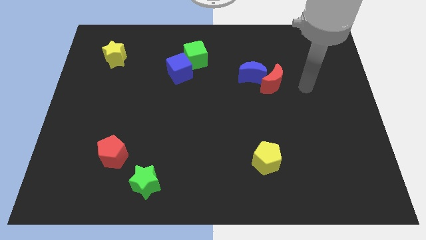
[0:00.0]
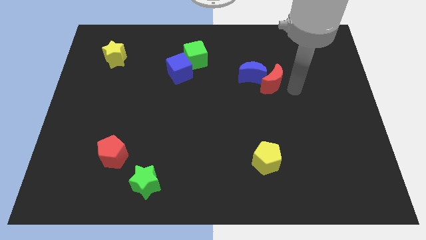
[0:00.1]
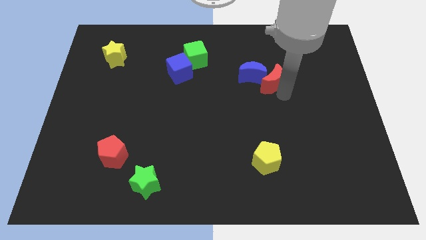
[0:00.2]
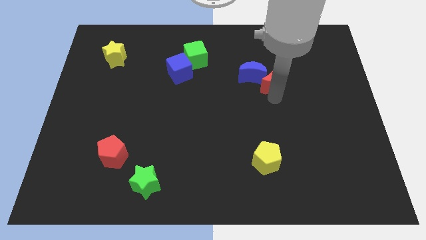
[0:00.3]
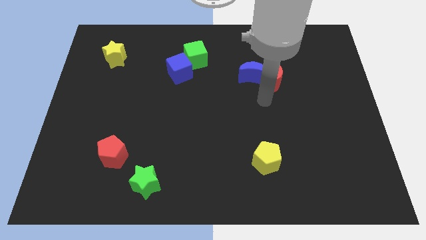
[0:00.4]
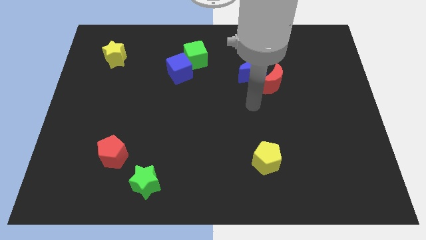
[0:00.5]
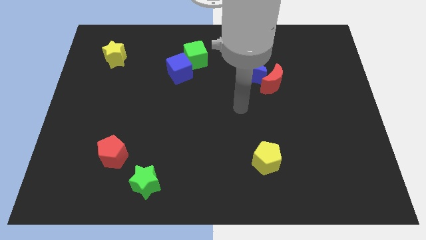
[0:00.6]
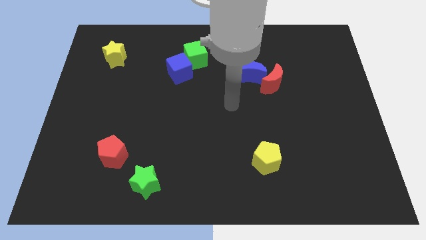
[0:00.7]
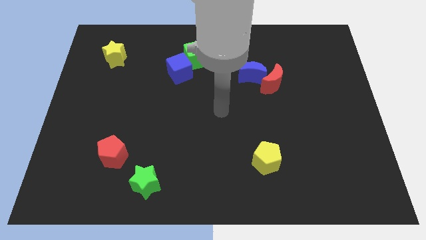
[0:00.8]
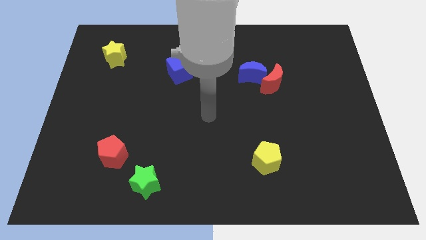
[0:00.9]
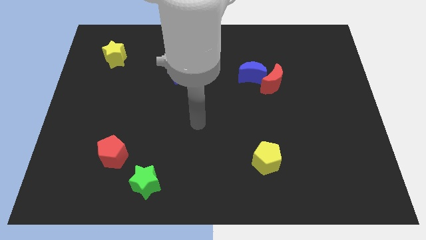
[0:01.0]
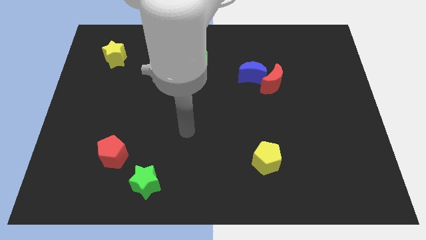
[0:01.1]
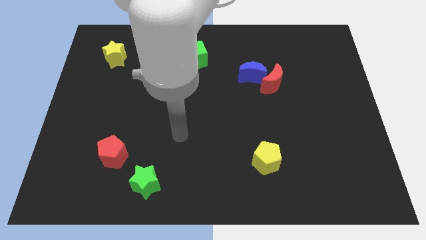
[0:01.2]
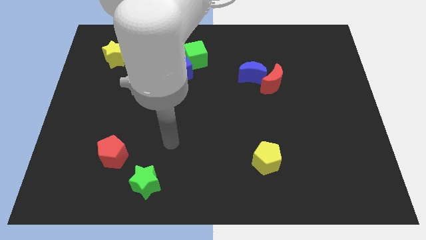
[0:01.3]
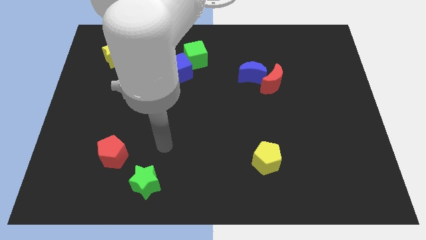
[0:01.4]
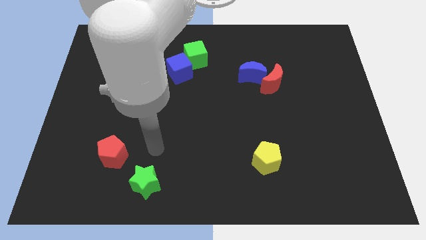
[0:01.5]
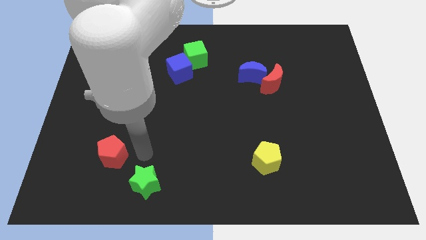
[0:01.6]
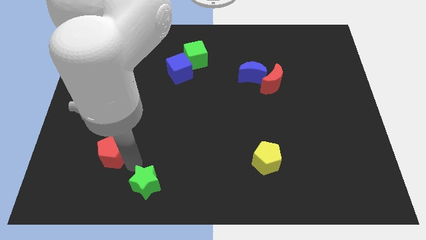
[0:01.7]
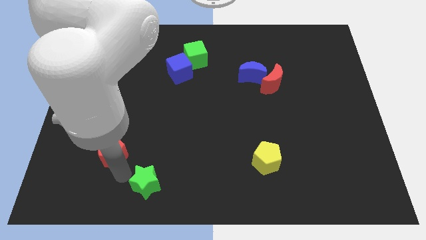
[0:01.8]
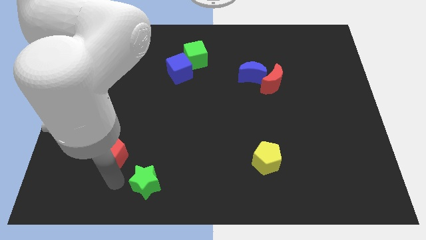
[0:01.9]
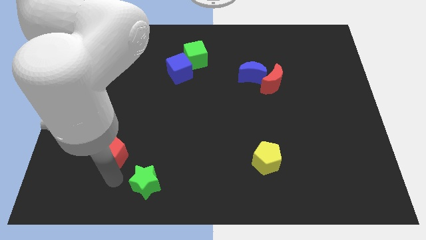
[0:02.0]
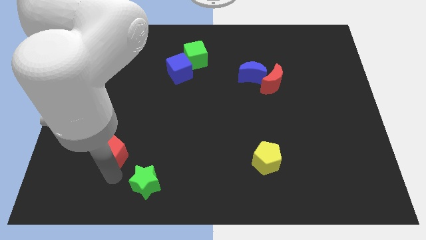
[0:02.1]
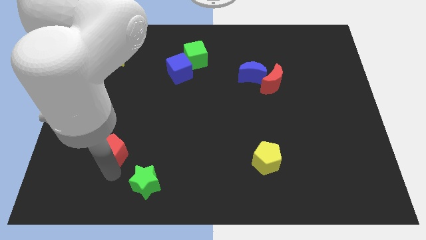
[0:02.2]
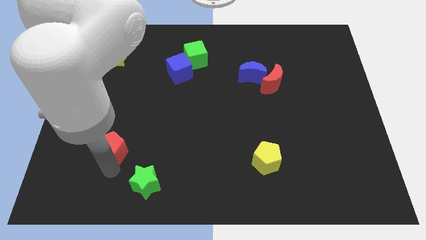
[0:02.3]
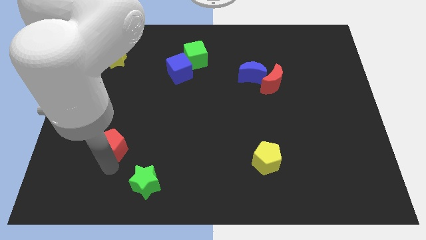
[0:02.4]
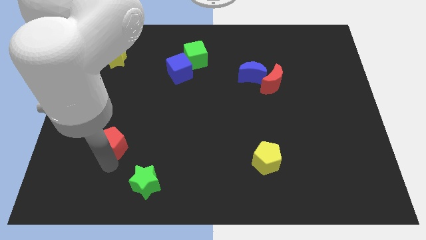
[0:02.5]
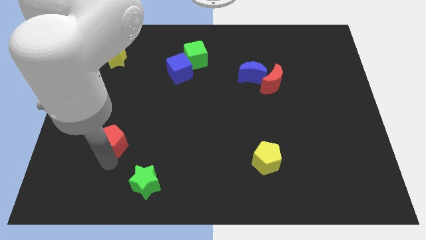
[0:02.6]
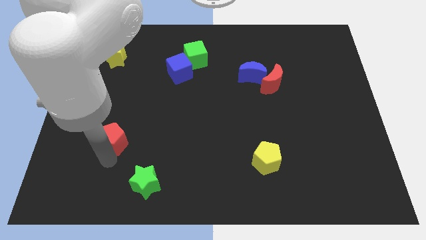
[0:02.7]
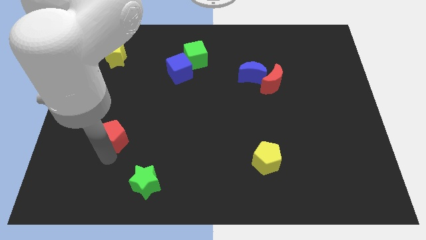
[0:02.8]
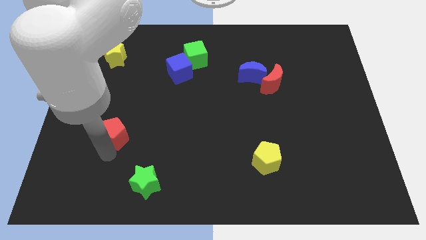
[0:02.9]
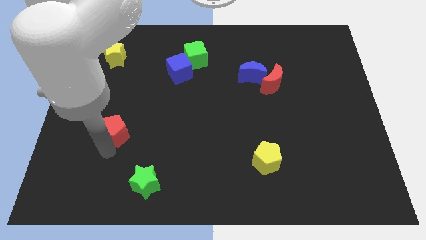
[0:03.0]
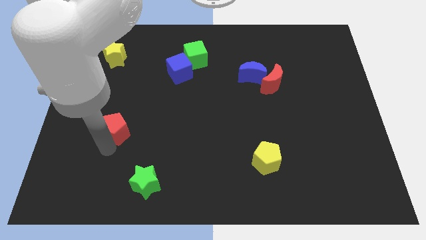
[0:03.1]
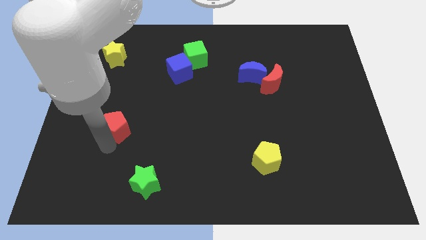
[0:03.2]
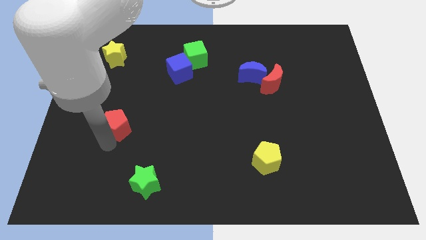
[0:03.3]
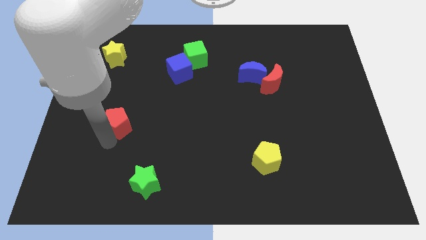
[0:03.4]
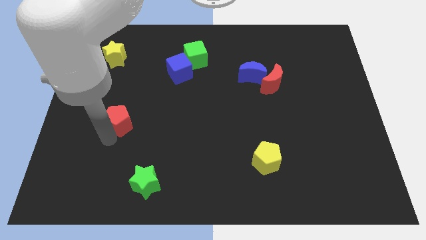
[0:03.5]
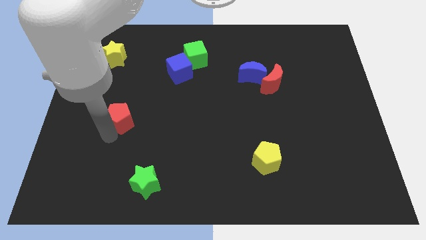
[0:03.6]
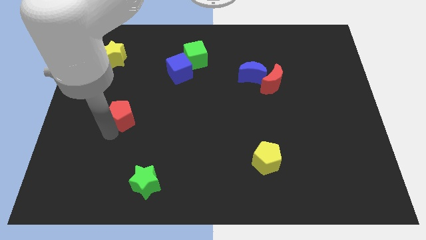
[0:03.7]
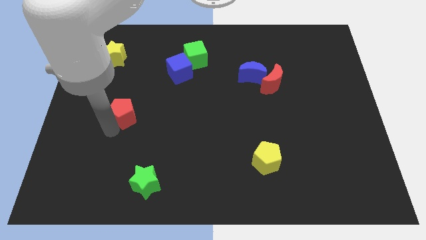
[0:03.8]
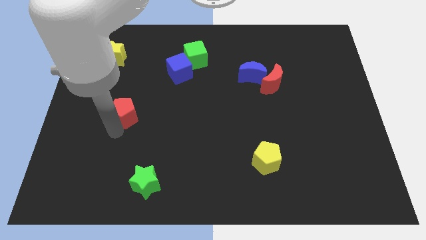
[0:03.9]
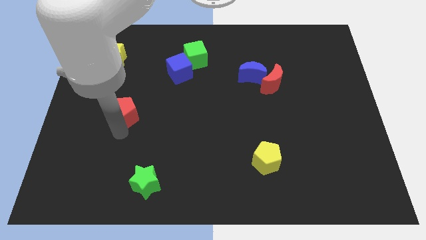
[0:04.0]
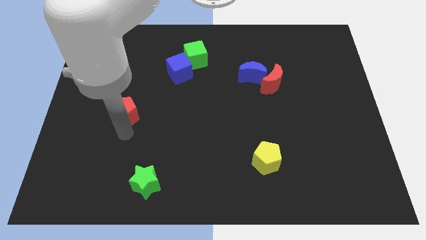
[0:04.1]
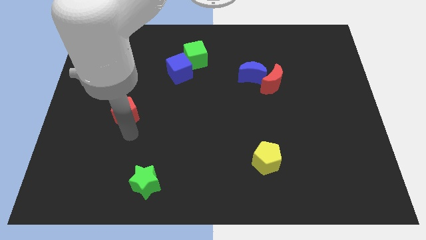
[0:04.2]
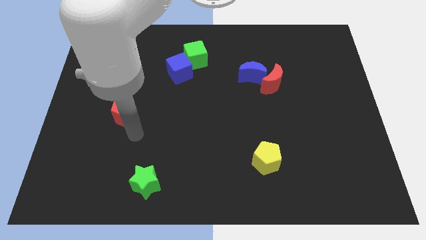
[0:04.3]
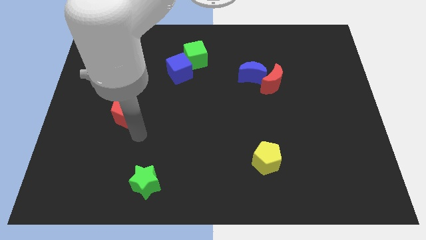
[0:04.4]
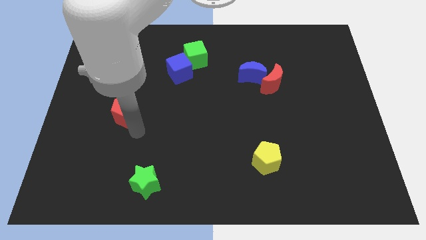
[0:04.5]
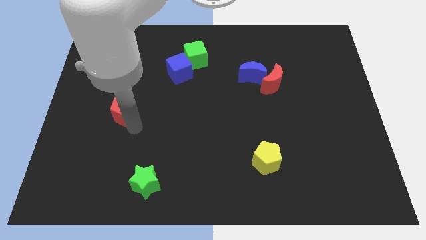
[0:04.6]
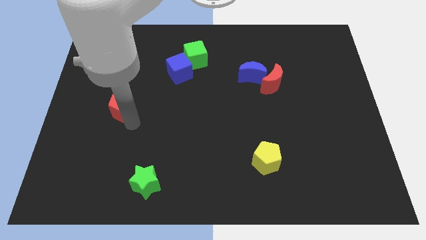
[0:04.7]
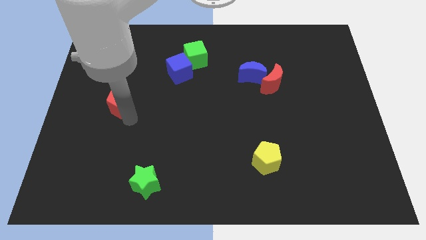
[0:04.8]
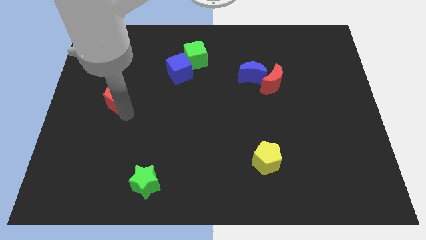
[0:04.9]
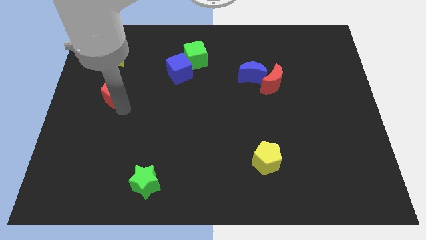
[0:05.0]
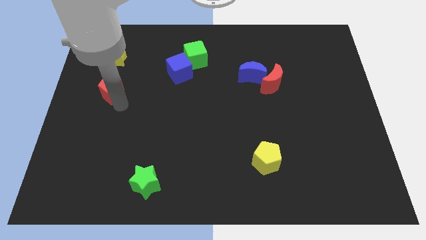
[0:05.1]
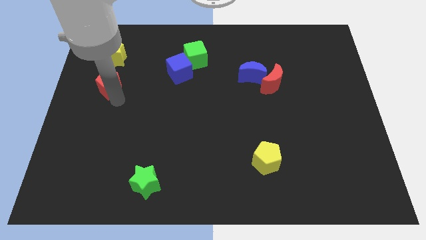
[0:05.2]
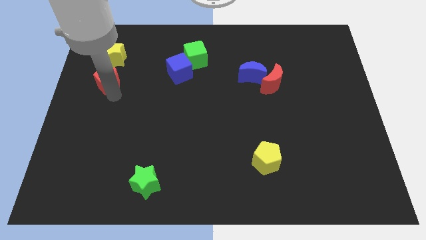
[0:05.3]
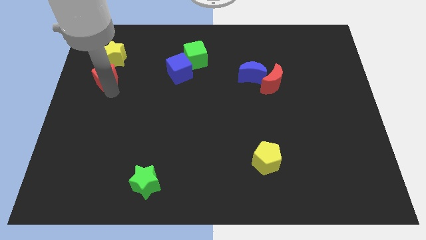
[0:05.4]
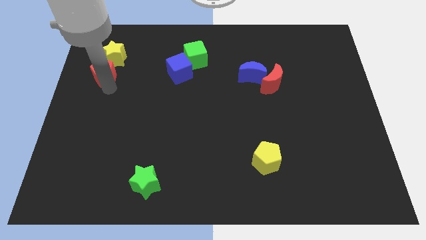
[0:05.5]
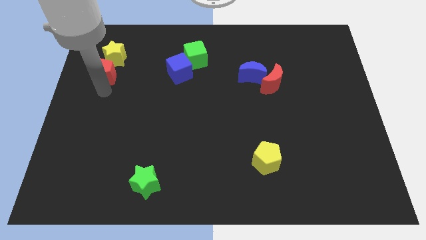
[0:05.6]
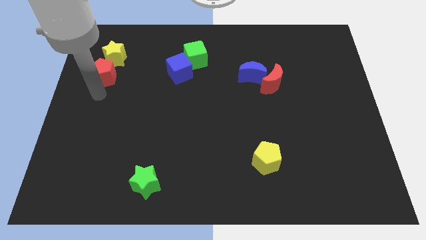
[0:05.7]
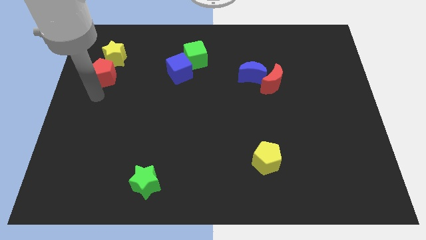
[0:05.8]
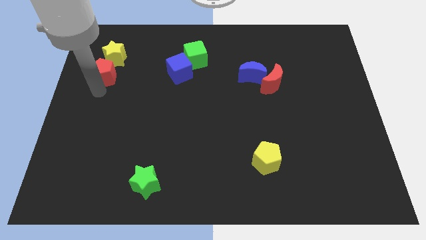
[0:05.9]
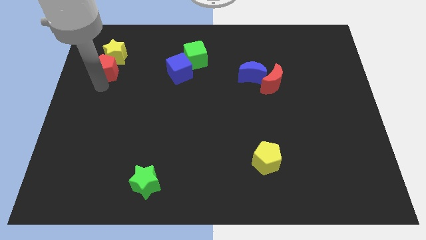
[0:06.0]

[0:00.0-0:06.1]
put the red pentagon towards the yellow star
